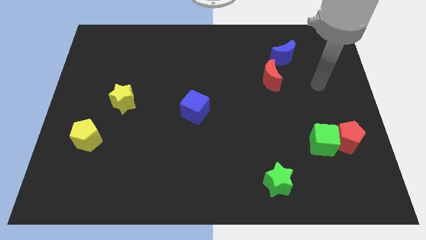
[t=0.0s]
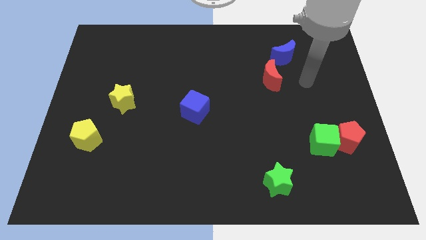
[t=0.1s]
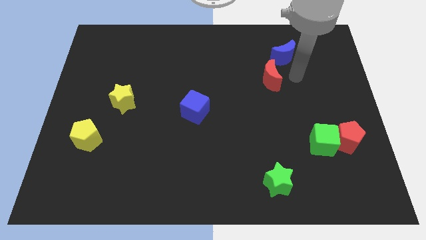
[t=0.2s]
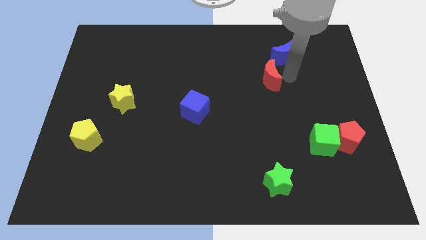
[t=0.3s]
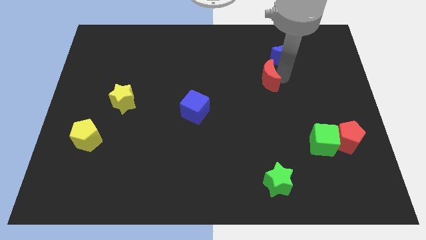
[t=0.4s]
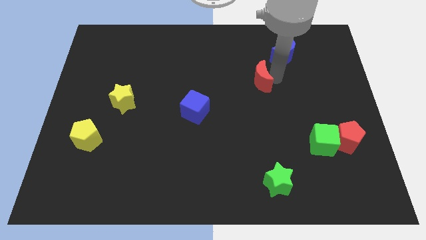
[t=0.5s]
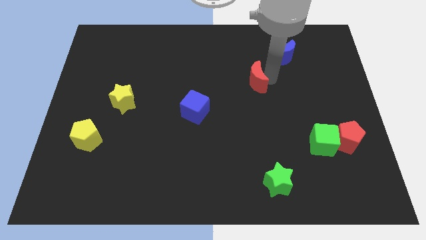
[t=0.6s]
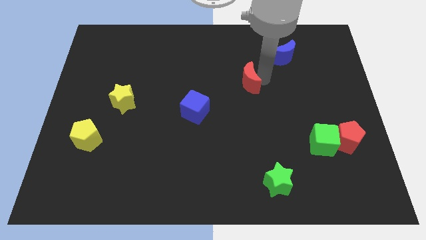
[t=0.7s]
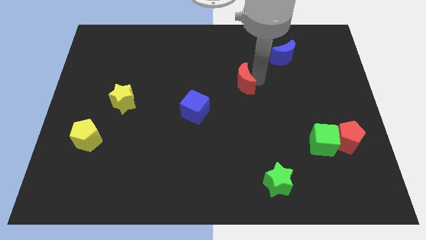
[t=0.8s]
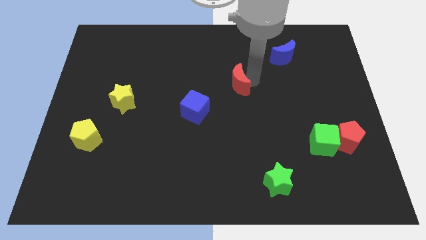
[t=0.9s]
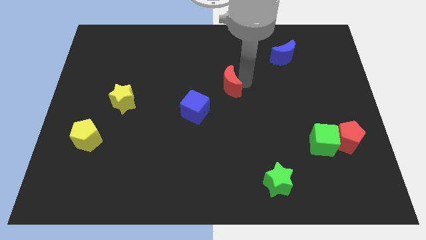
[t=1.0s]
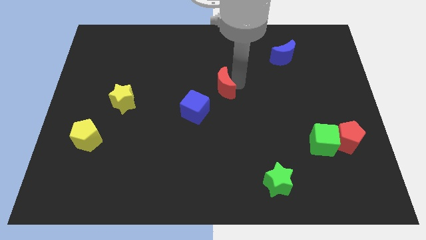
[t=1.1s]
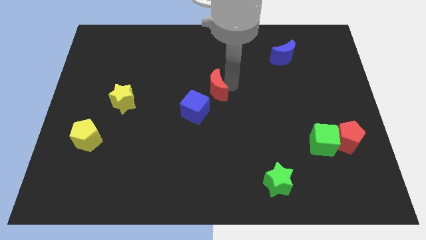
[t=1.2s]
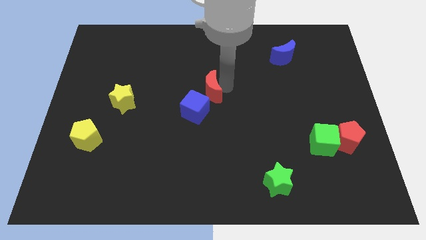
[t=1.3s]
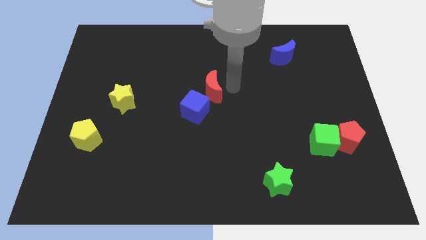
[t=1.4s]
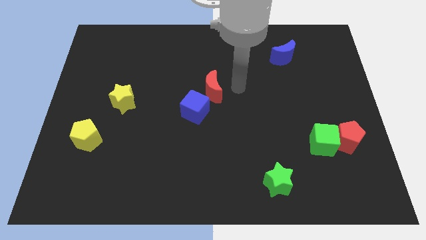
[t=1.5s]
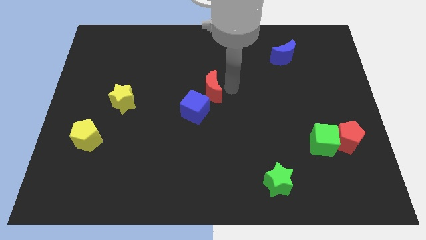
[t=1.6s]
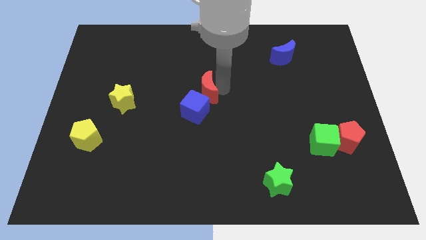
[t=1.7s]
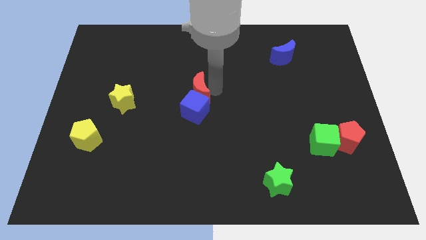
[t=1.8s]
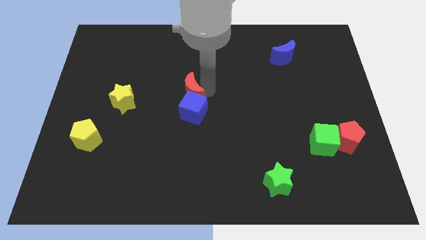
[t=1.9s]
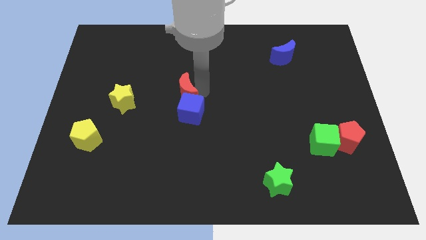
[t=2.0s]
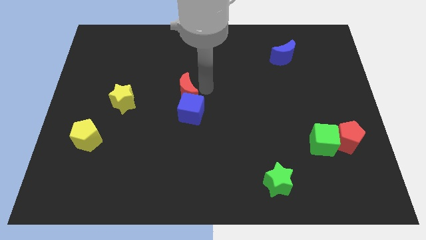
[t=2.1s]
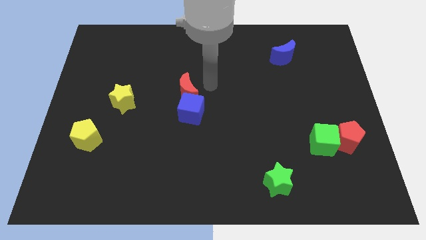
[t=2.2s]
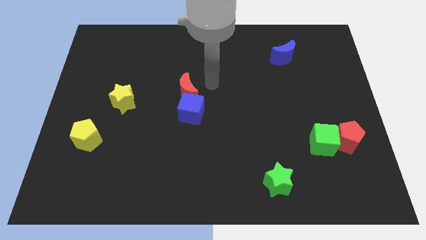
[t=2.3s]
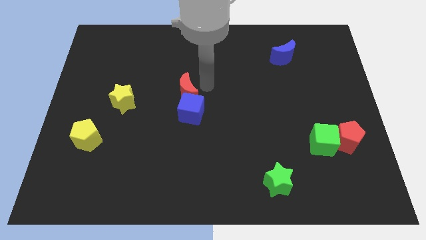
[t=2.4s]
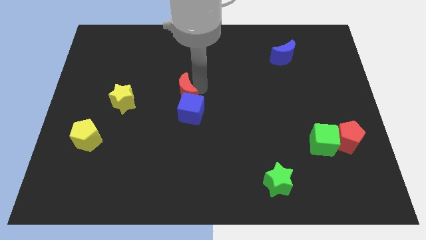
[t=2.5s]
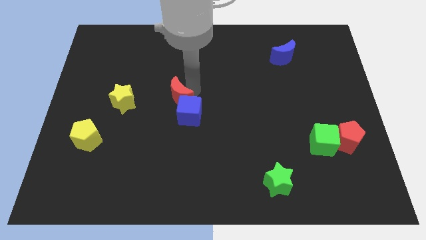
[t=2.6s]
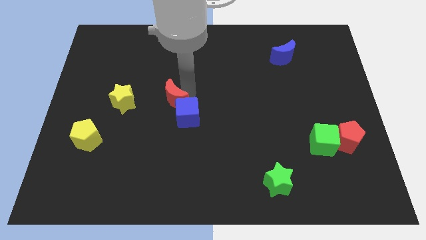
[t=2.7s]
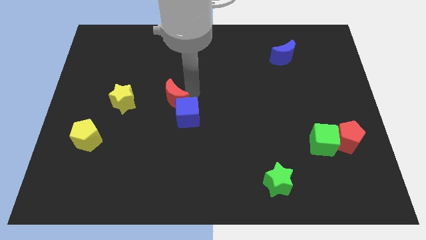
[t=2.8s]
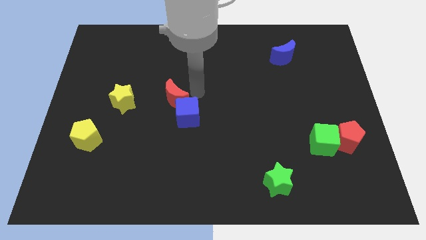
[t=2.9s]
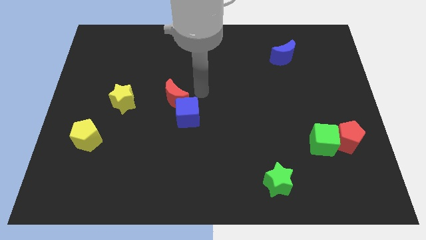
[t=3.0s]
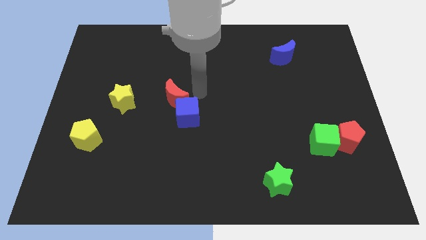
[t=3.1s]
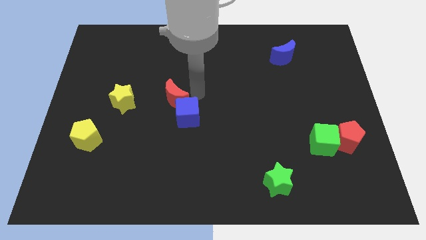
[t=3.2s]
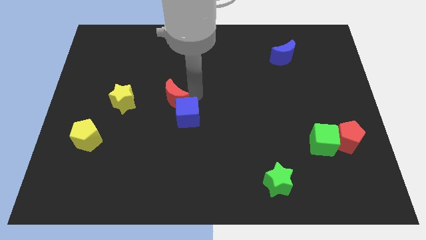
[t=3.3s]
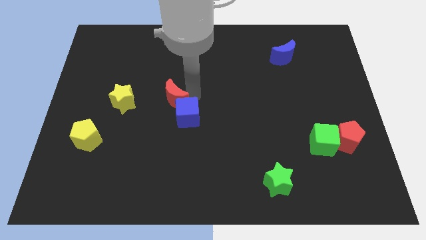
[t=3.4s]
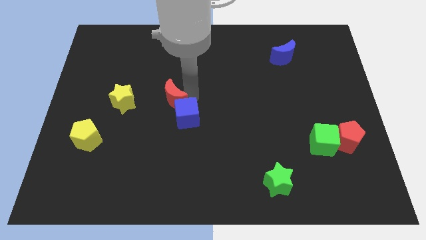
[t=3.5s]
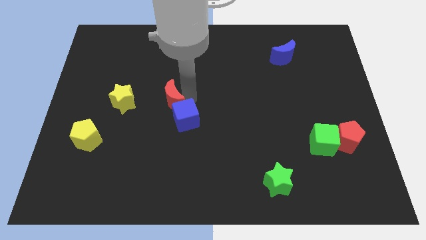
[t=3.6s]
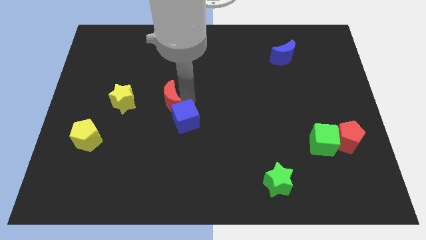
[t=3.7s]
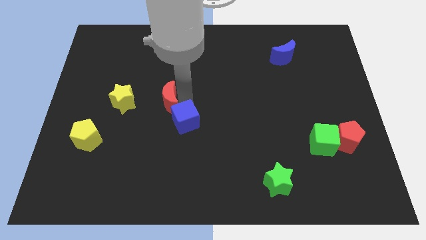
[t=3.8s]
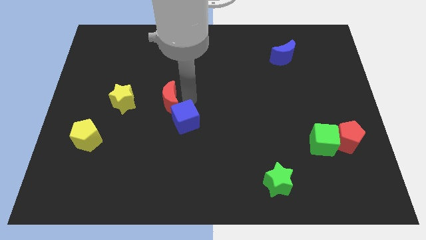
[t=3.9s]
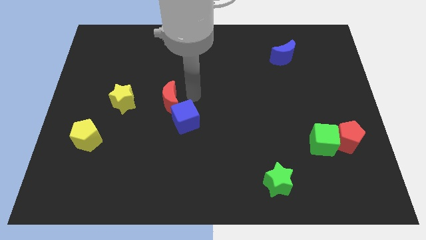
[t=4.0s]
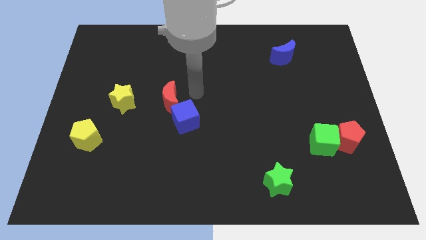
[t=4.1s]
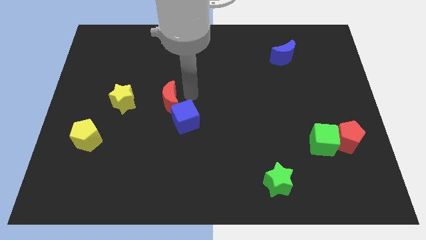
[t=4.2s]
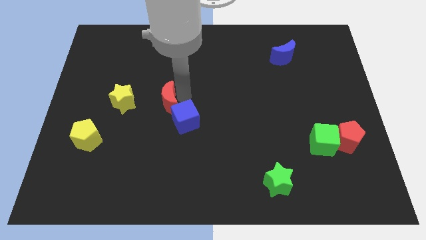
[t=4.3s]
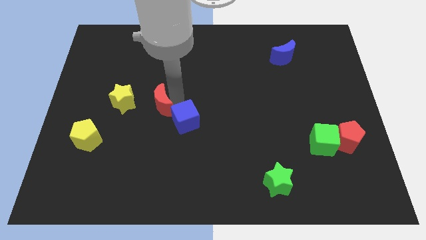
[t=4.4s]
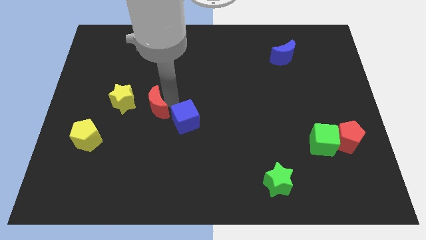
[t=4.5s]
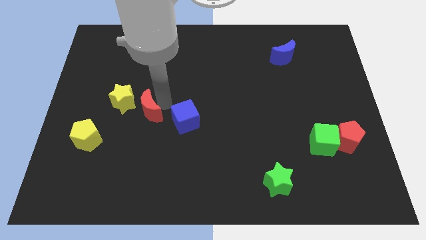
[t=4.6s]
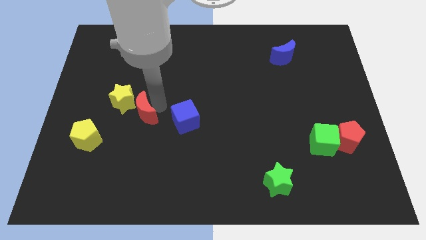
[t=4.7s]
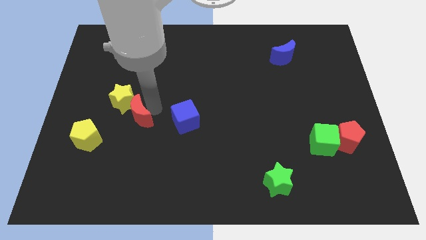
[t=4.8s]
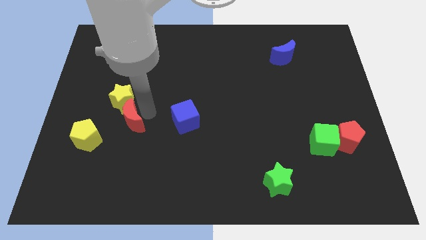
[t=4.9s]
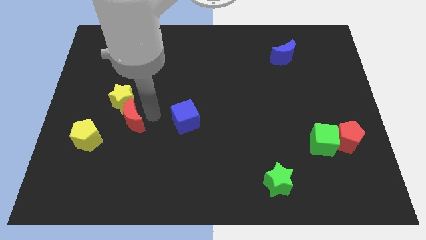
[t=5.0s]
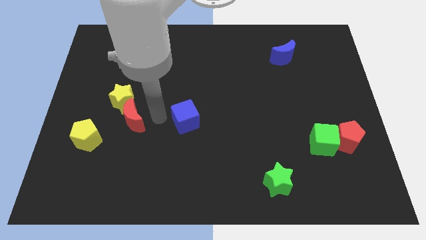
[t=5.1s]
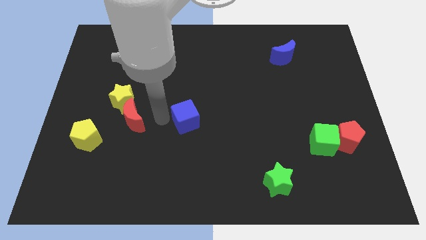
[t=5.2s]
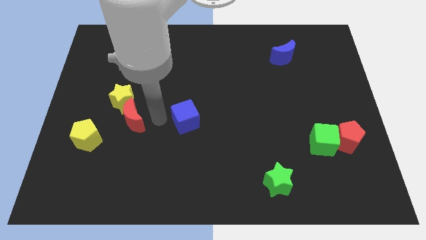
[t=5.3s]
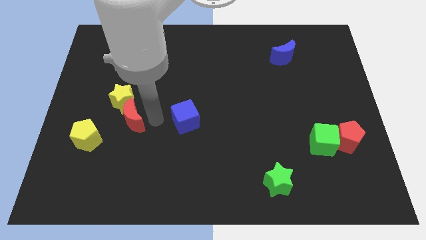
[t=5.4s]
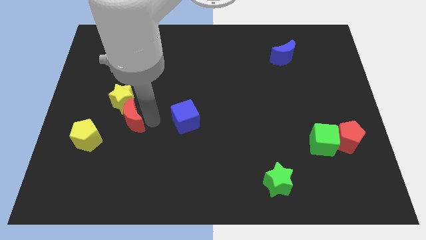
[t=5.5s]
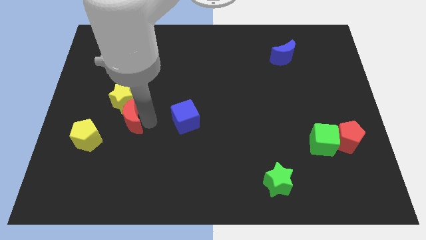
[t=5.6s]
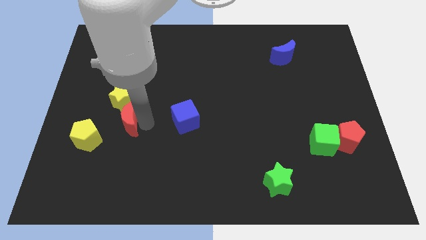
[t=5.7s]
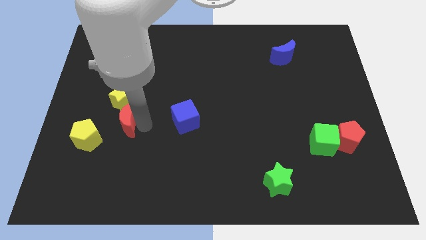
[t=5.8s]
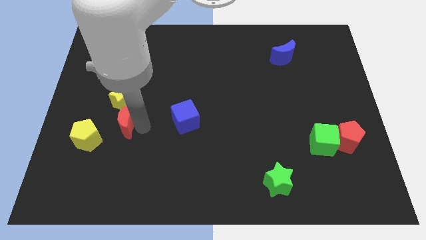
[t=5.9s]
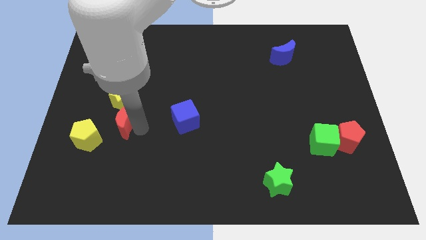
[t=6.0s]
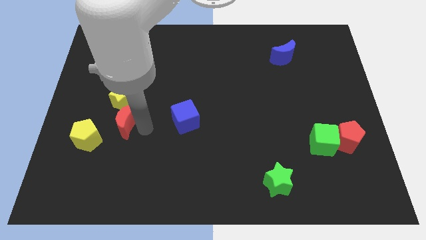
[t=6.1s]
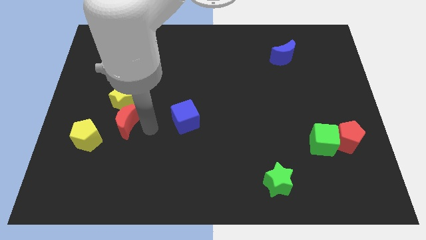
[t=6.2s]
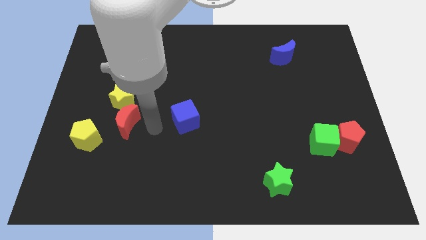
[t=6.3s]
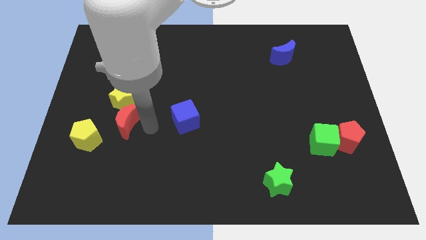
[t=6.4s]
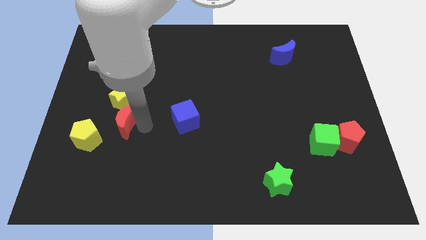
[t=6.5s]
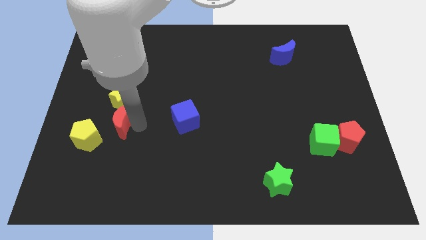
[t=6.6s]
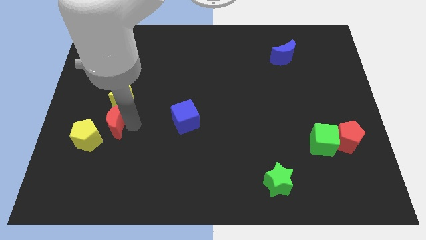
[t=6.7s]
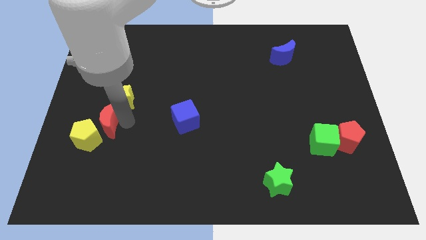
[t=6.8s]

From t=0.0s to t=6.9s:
put the red moon to the yellow pentagon

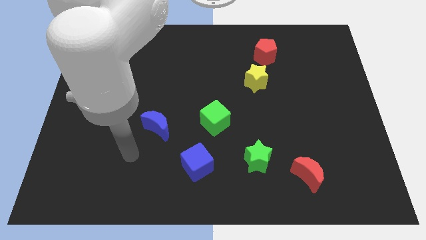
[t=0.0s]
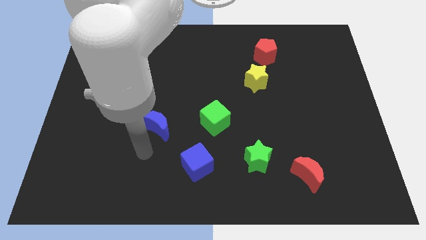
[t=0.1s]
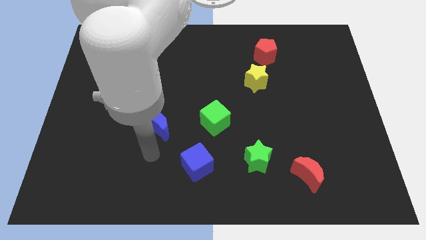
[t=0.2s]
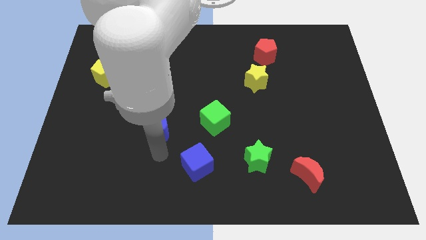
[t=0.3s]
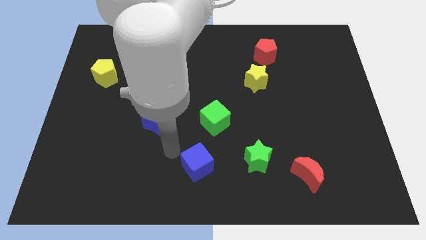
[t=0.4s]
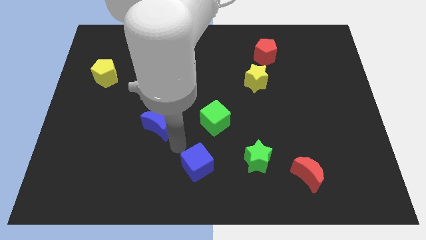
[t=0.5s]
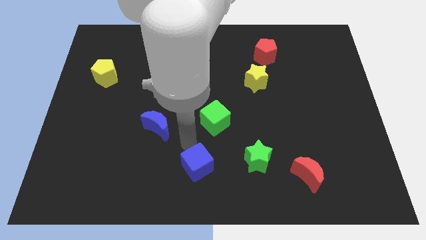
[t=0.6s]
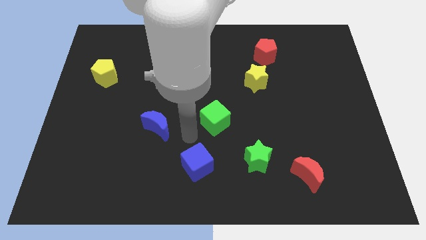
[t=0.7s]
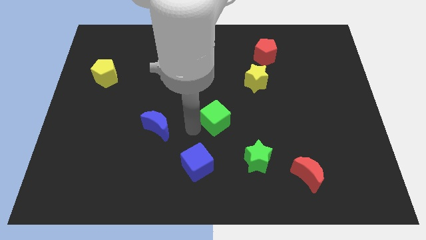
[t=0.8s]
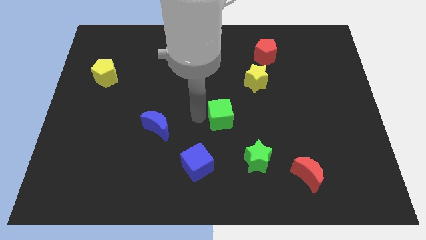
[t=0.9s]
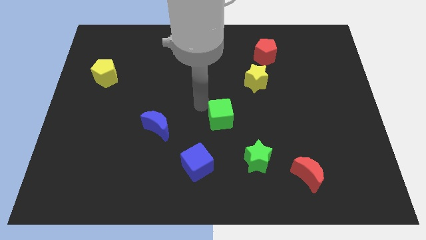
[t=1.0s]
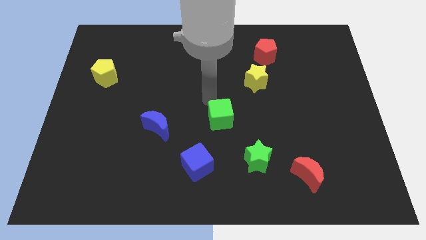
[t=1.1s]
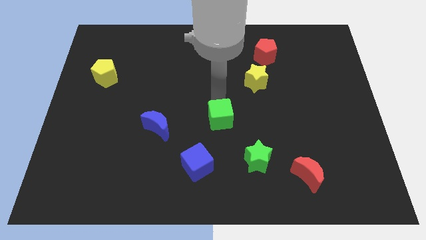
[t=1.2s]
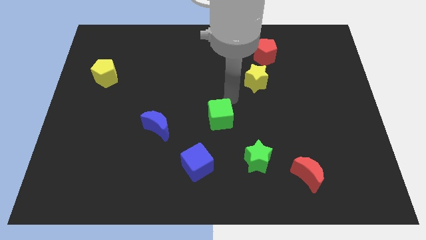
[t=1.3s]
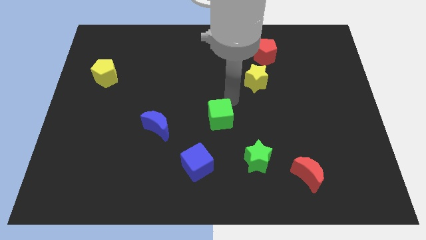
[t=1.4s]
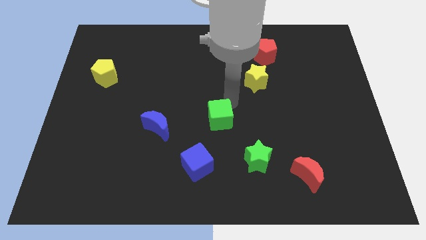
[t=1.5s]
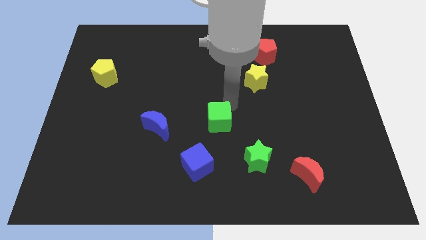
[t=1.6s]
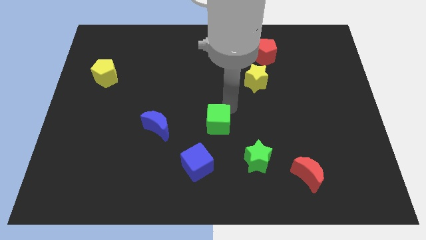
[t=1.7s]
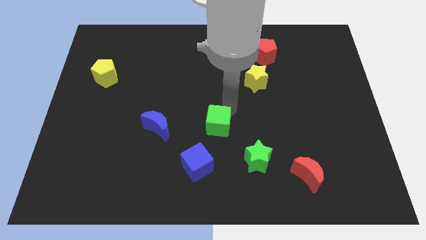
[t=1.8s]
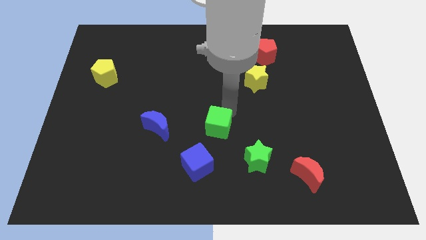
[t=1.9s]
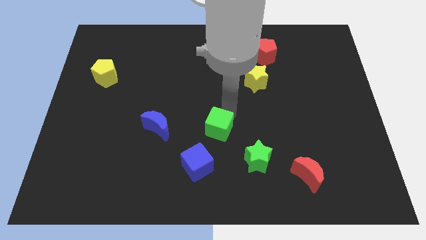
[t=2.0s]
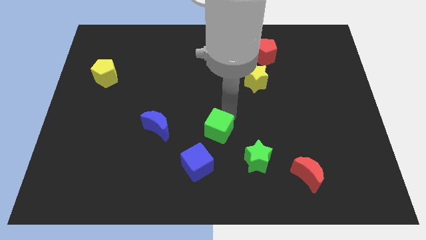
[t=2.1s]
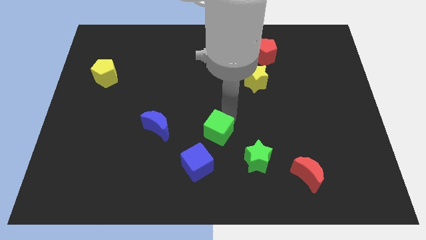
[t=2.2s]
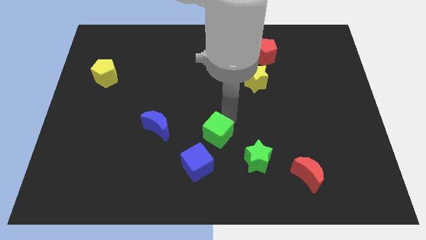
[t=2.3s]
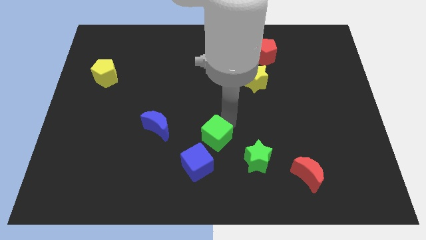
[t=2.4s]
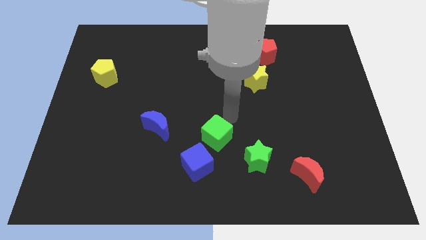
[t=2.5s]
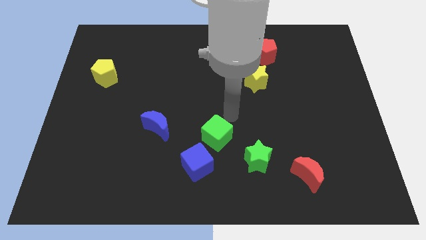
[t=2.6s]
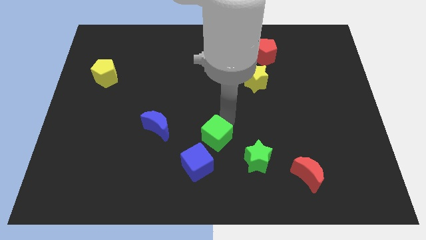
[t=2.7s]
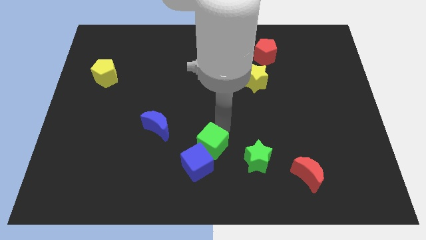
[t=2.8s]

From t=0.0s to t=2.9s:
put the green cube to the blue cube
